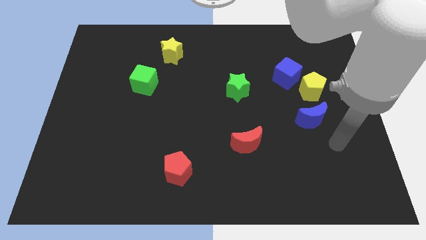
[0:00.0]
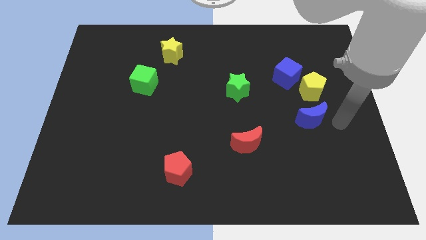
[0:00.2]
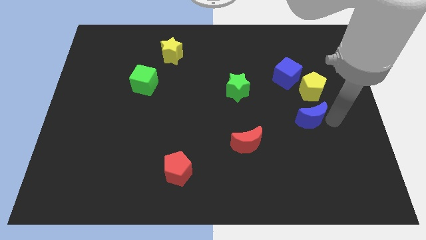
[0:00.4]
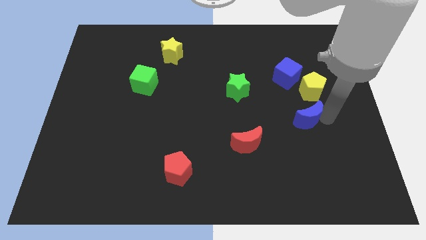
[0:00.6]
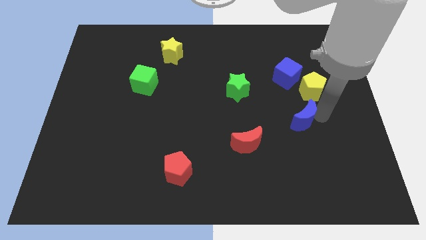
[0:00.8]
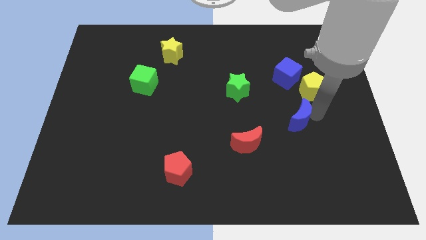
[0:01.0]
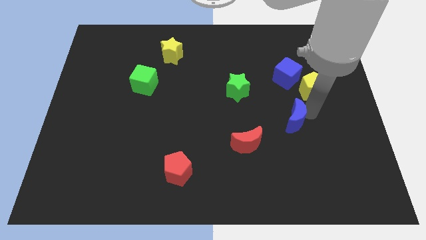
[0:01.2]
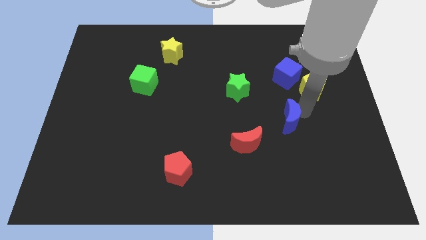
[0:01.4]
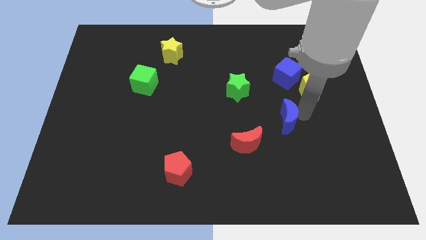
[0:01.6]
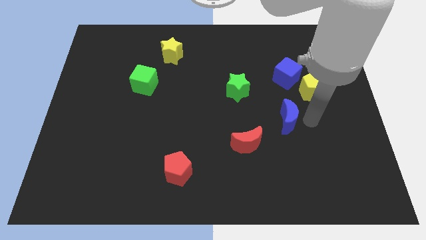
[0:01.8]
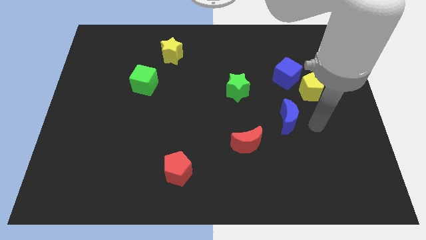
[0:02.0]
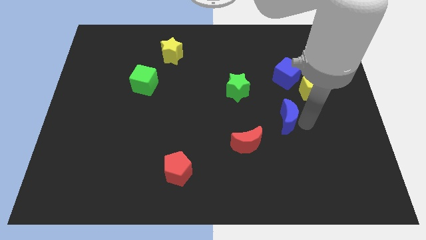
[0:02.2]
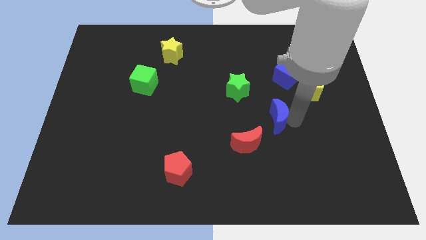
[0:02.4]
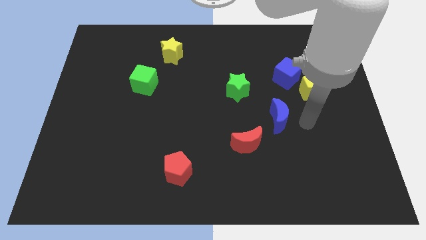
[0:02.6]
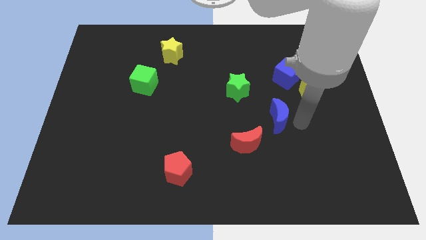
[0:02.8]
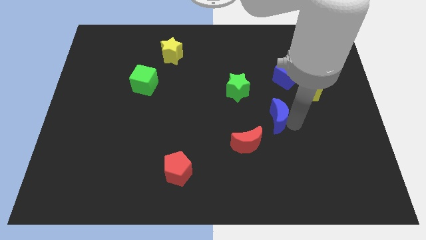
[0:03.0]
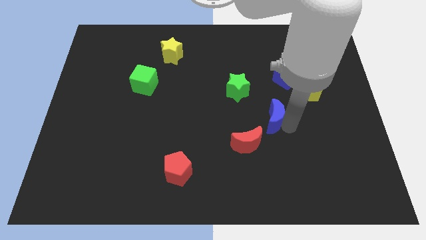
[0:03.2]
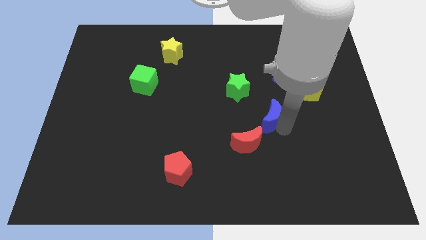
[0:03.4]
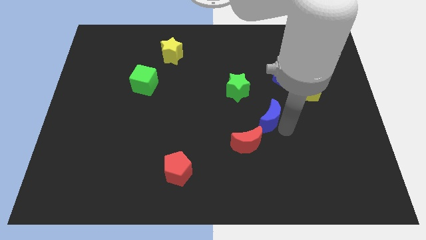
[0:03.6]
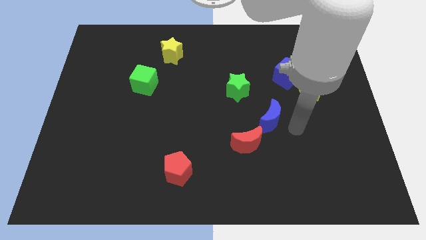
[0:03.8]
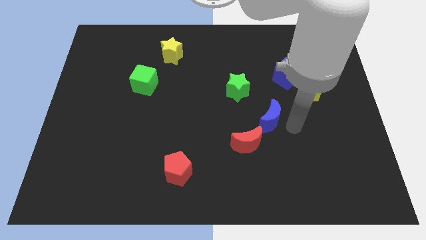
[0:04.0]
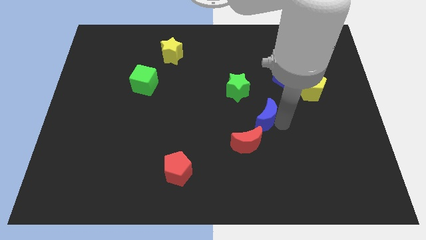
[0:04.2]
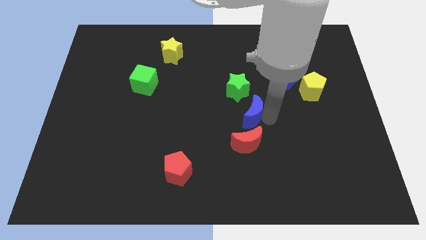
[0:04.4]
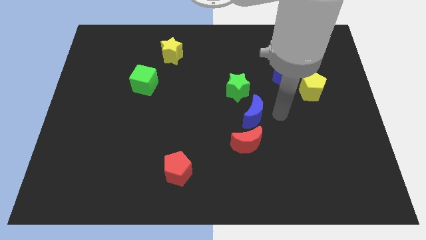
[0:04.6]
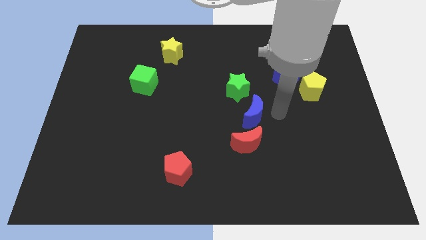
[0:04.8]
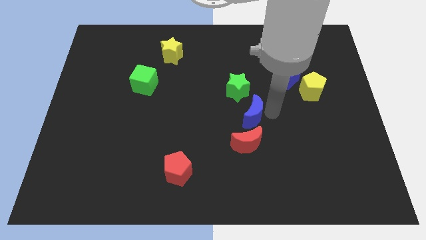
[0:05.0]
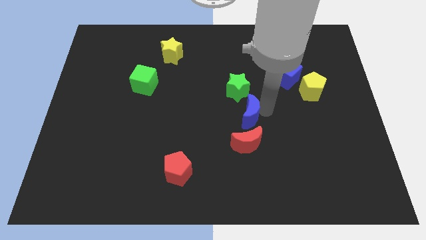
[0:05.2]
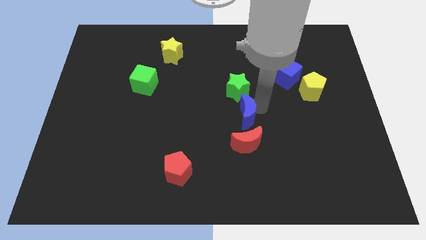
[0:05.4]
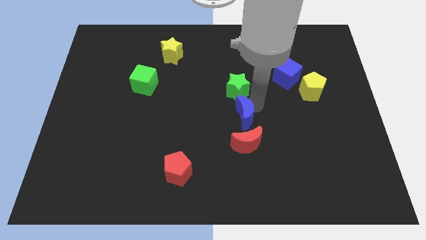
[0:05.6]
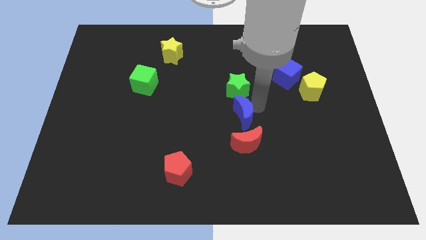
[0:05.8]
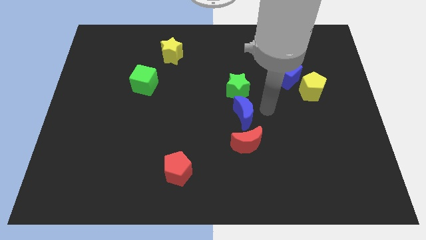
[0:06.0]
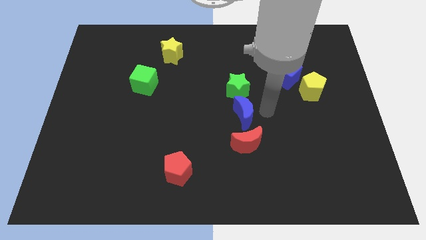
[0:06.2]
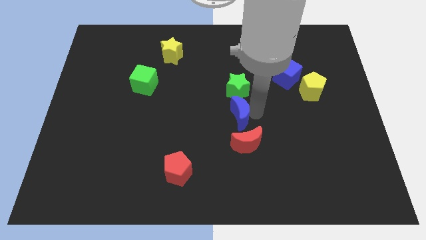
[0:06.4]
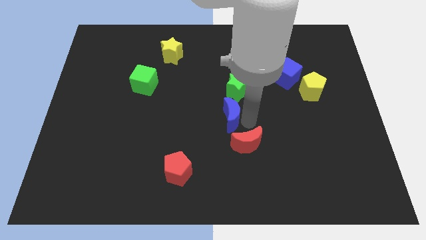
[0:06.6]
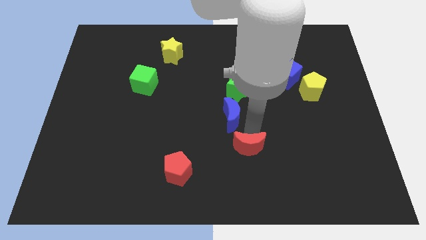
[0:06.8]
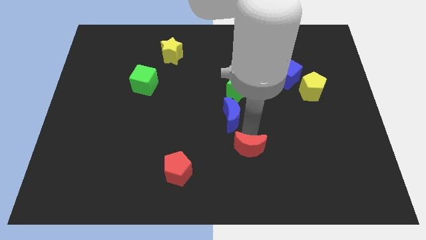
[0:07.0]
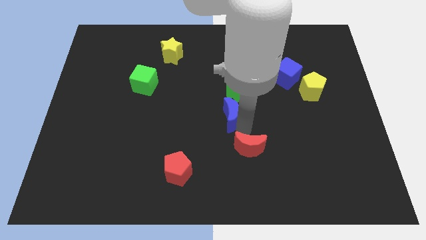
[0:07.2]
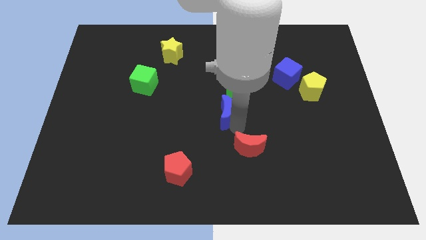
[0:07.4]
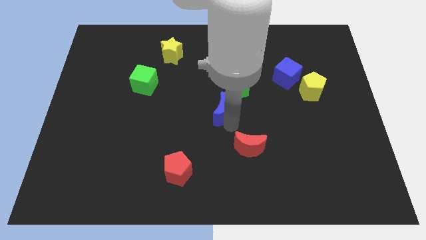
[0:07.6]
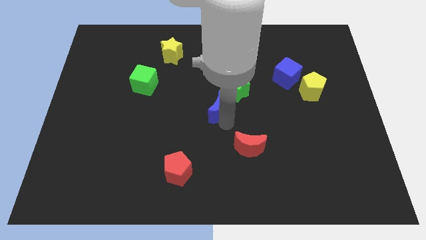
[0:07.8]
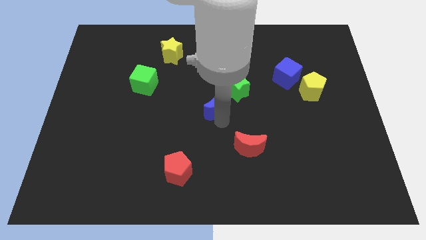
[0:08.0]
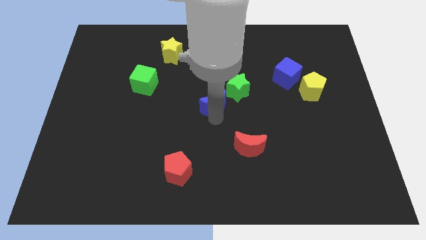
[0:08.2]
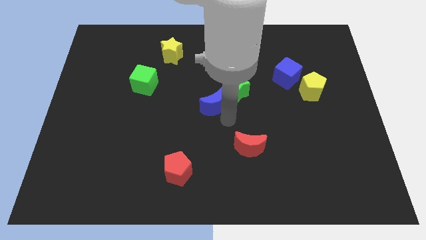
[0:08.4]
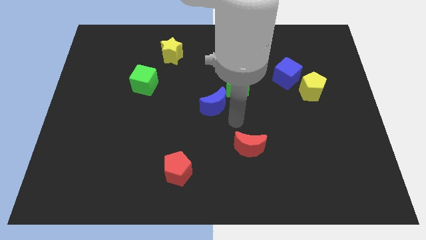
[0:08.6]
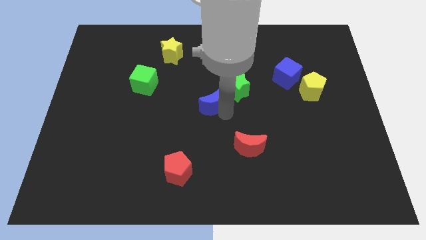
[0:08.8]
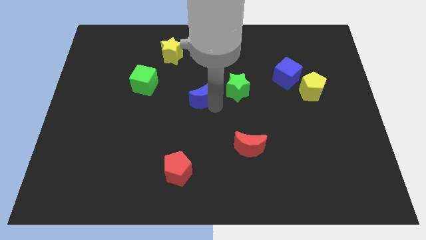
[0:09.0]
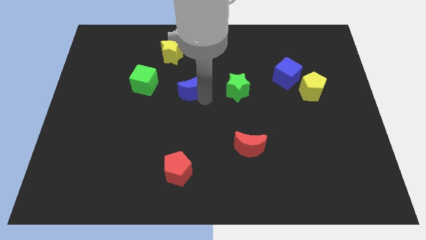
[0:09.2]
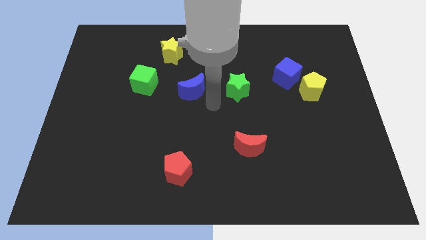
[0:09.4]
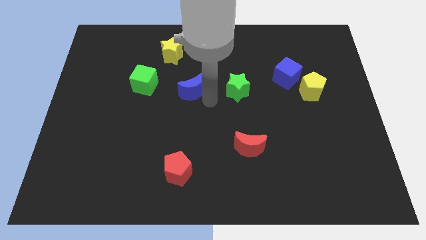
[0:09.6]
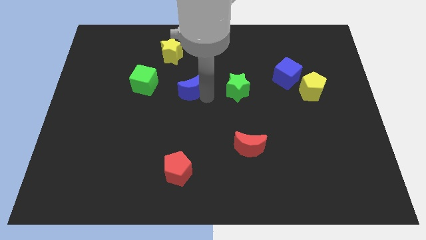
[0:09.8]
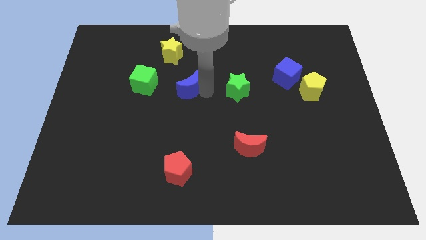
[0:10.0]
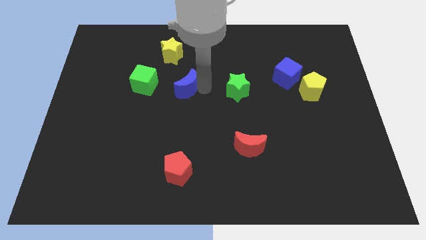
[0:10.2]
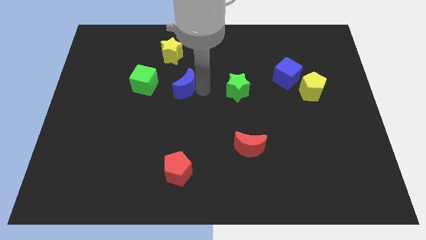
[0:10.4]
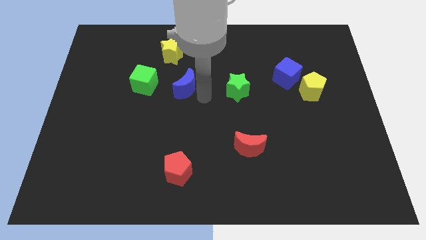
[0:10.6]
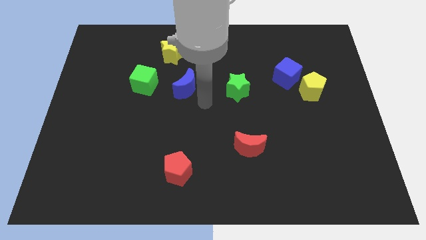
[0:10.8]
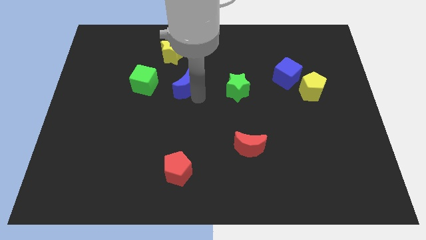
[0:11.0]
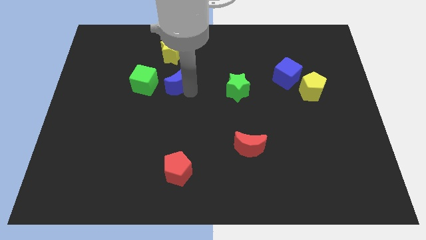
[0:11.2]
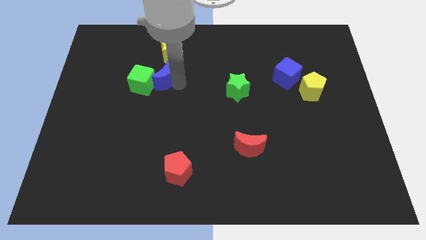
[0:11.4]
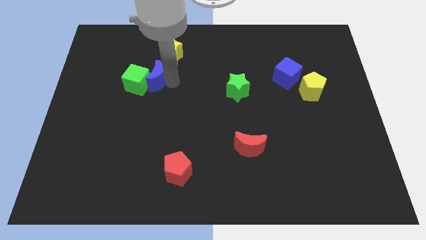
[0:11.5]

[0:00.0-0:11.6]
push the blue moon to the bottom left of the yellow star
